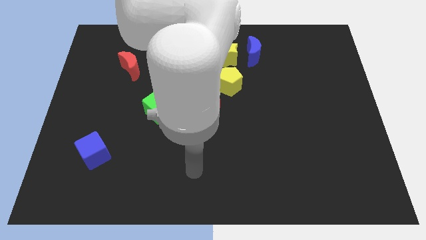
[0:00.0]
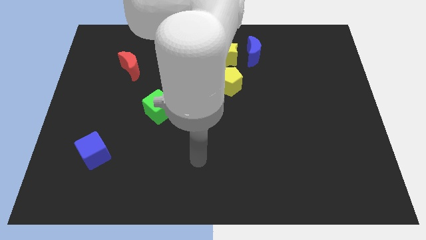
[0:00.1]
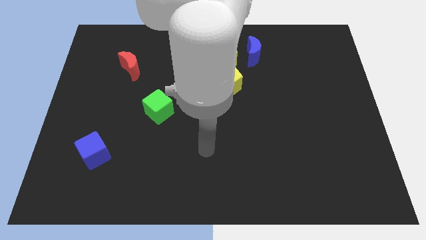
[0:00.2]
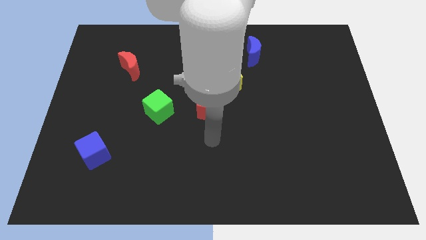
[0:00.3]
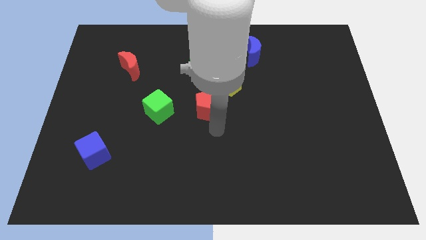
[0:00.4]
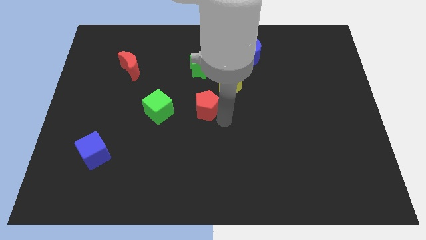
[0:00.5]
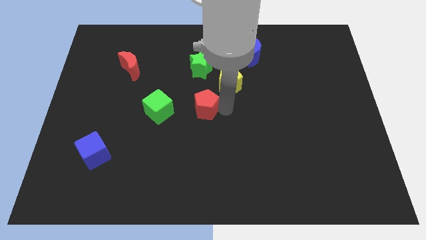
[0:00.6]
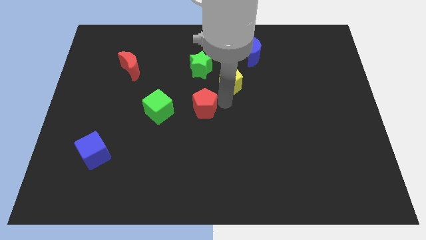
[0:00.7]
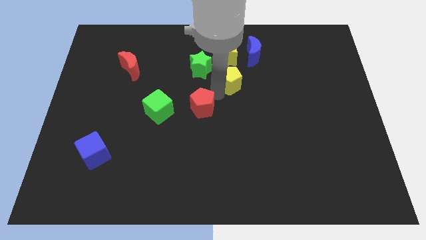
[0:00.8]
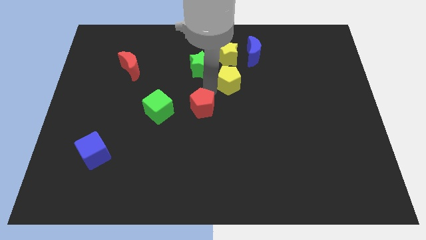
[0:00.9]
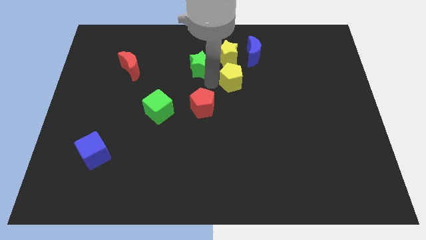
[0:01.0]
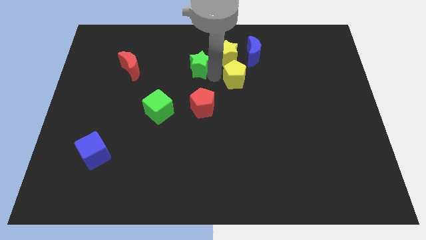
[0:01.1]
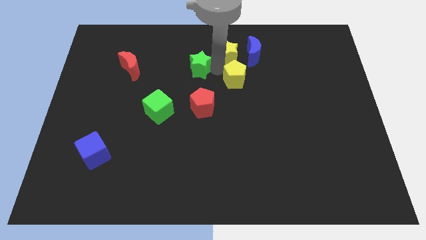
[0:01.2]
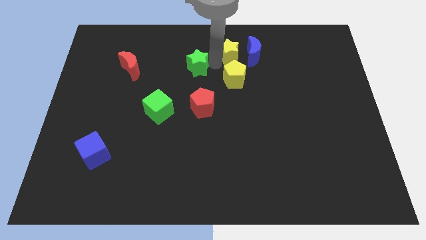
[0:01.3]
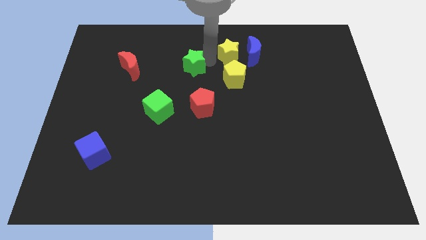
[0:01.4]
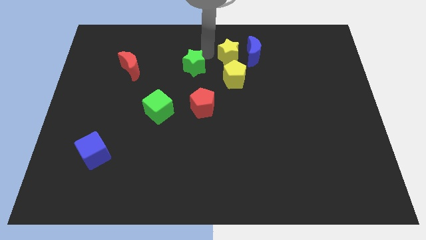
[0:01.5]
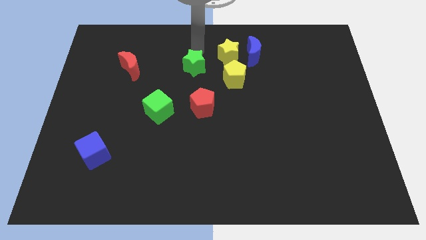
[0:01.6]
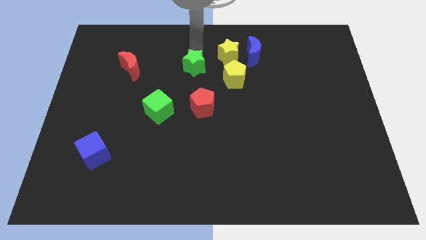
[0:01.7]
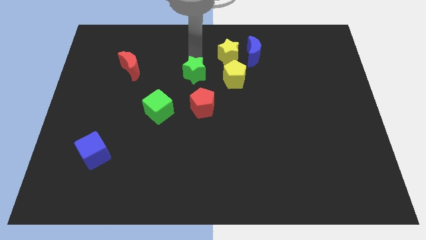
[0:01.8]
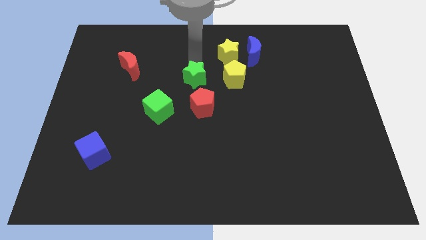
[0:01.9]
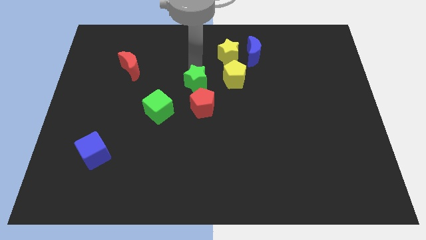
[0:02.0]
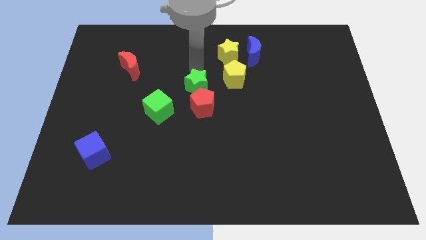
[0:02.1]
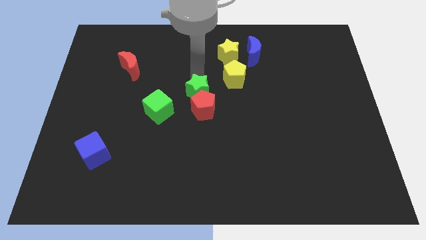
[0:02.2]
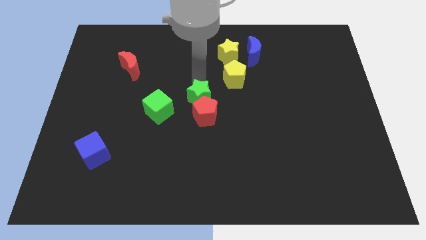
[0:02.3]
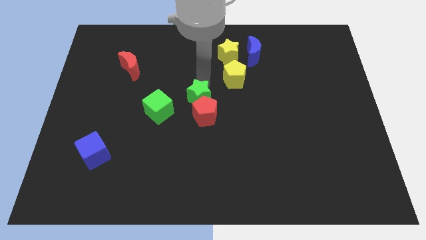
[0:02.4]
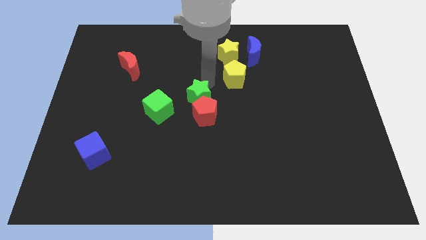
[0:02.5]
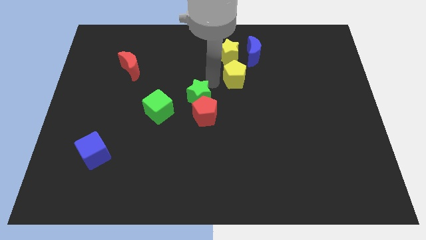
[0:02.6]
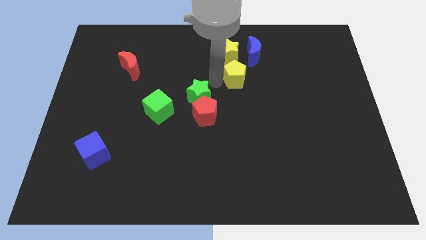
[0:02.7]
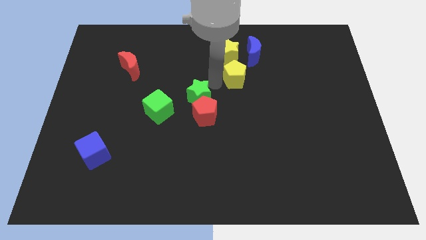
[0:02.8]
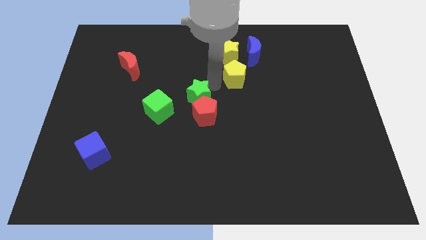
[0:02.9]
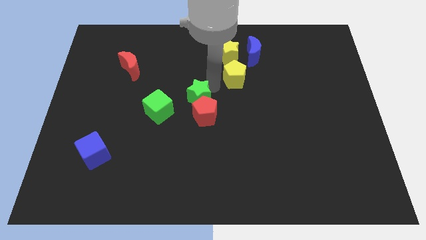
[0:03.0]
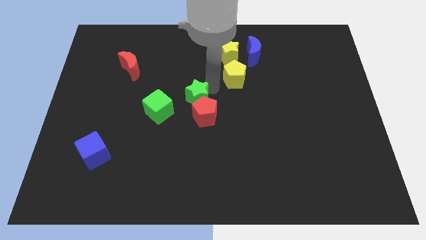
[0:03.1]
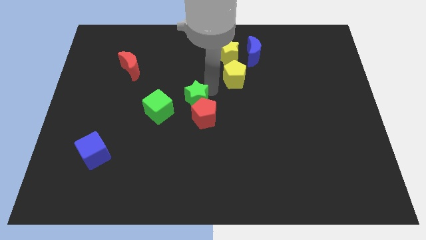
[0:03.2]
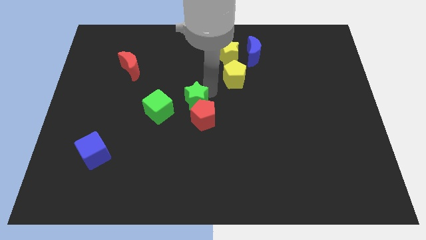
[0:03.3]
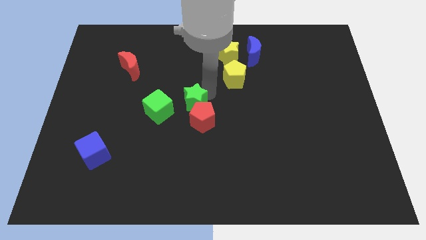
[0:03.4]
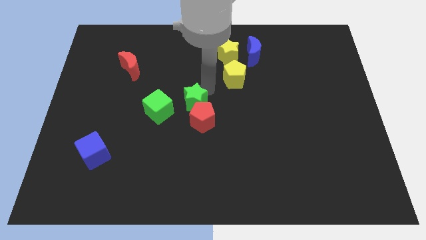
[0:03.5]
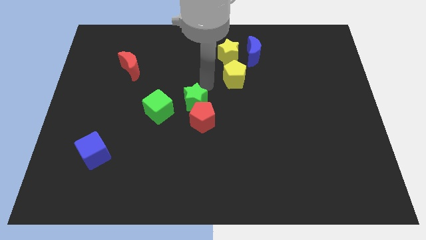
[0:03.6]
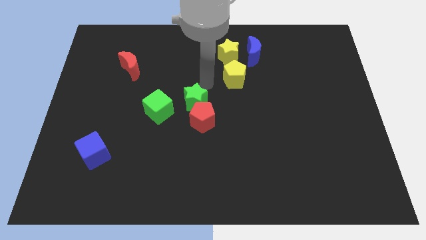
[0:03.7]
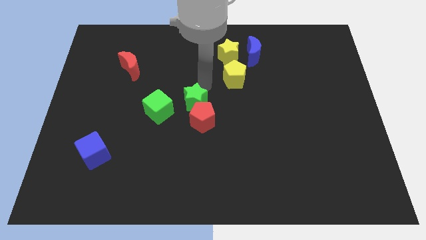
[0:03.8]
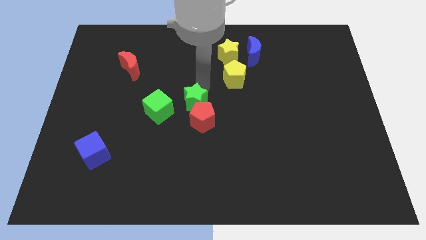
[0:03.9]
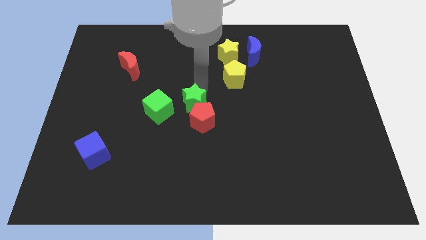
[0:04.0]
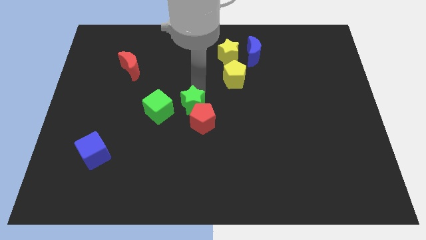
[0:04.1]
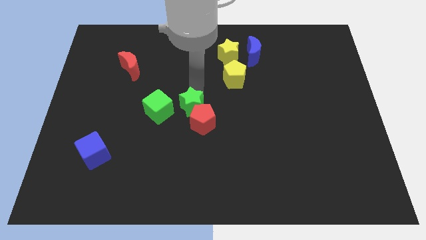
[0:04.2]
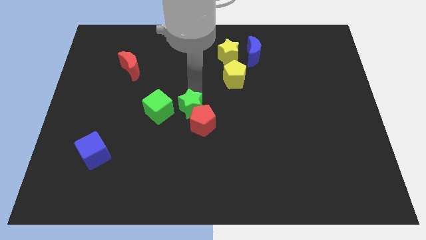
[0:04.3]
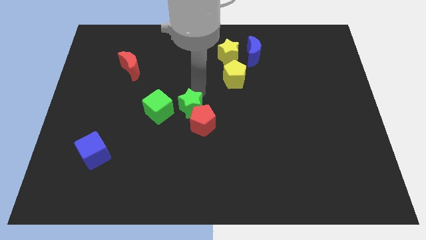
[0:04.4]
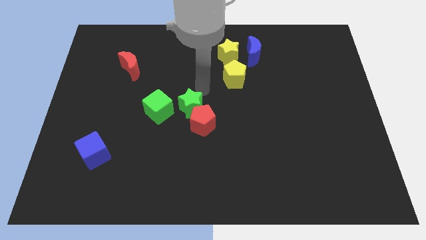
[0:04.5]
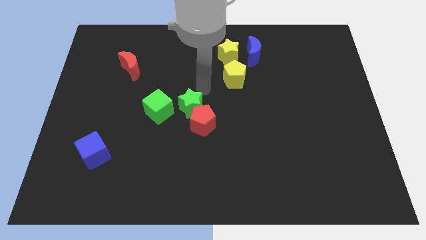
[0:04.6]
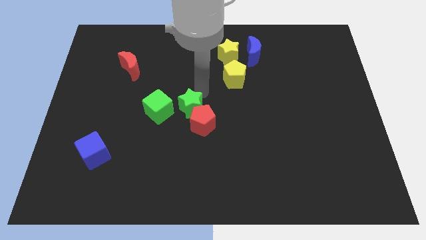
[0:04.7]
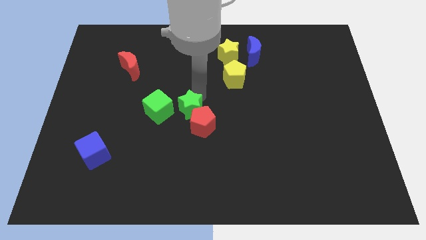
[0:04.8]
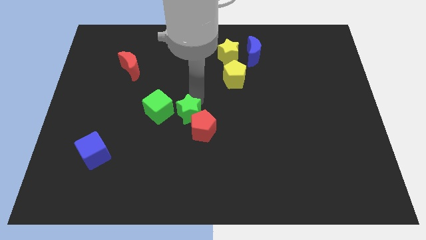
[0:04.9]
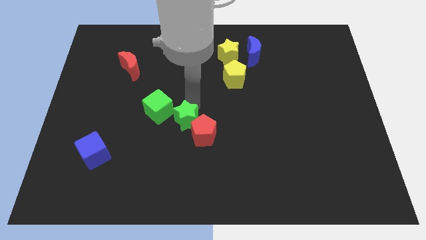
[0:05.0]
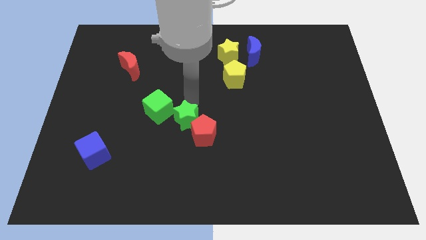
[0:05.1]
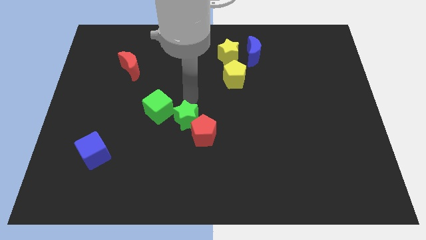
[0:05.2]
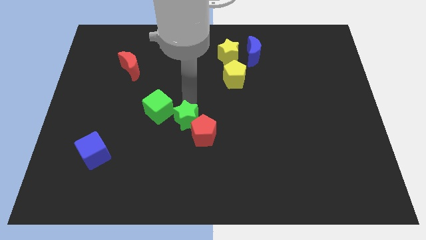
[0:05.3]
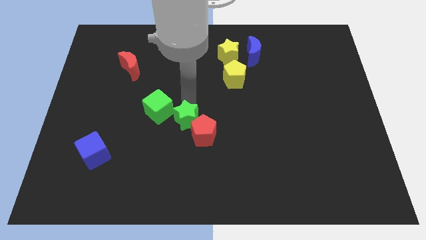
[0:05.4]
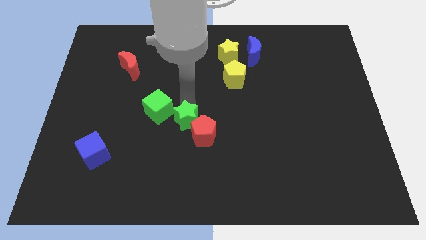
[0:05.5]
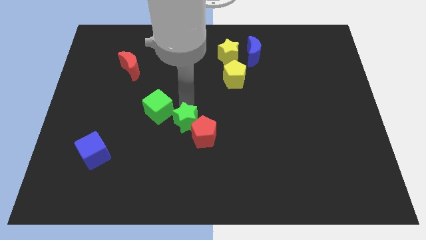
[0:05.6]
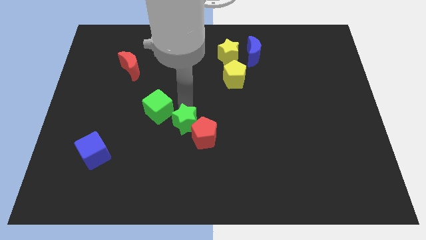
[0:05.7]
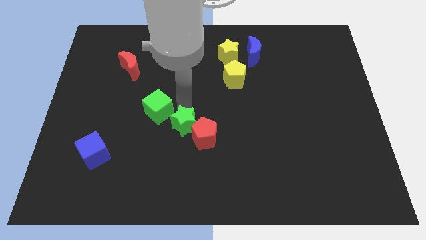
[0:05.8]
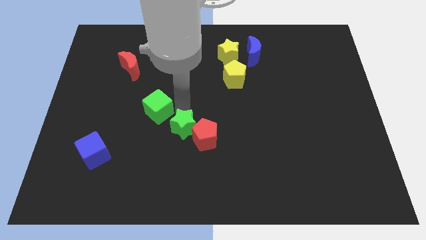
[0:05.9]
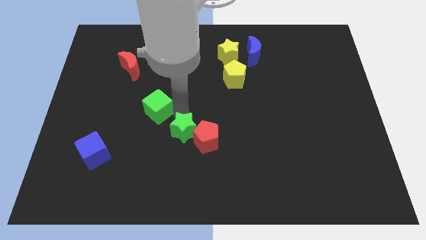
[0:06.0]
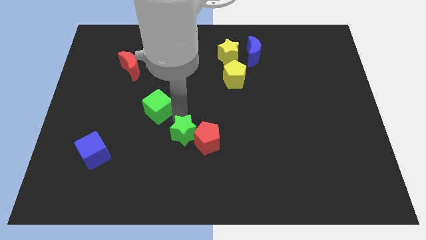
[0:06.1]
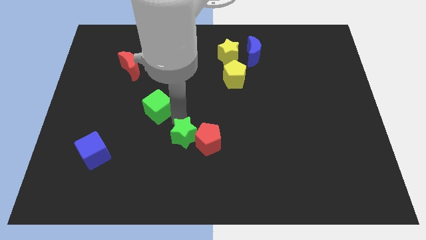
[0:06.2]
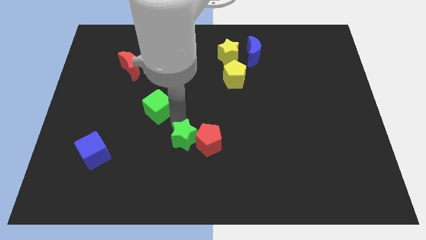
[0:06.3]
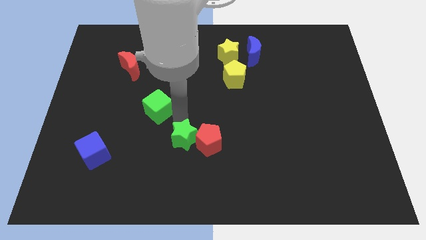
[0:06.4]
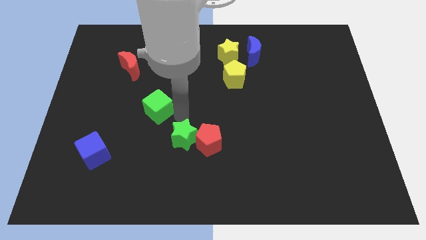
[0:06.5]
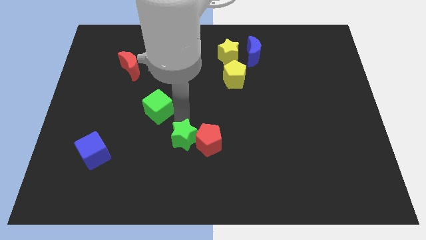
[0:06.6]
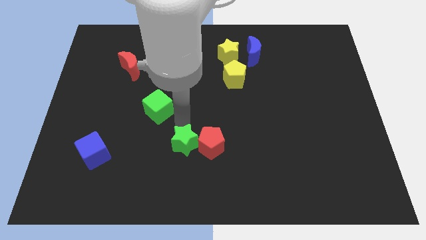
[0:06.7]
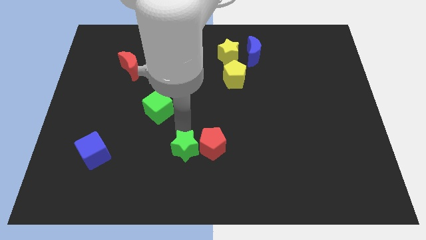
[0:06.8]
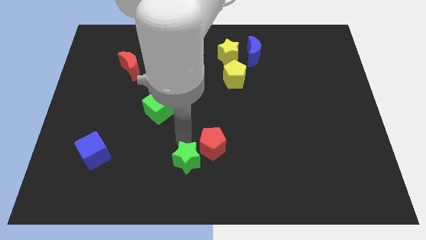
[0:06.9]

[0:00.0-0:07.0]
move the green star to the bottom side
